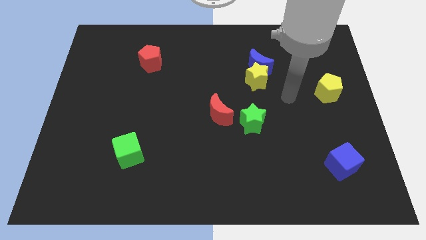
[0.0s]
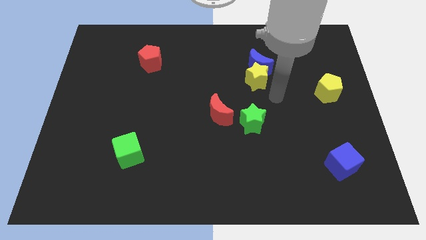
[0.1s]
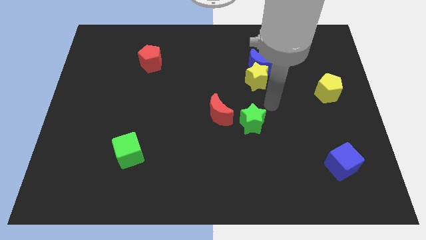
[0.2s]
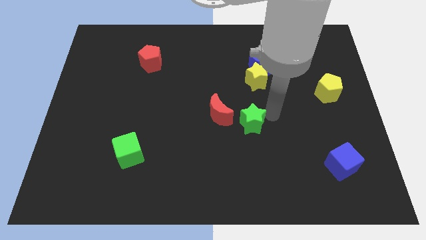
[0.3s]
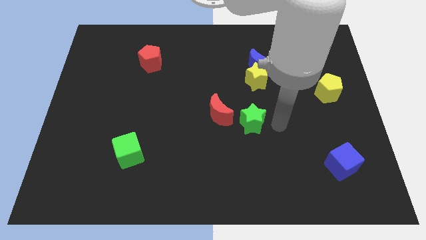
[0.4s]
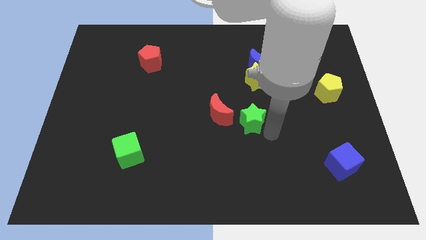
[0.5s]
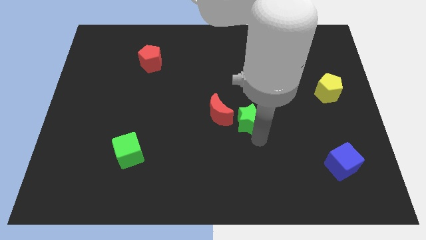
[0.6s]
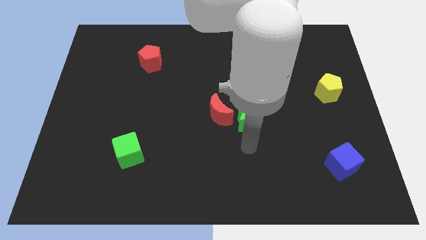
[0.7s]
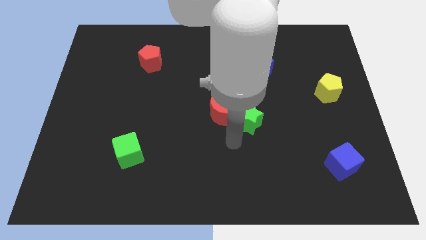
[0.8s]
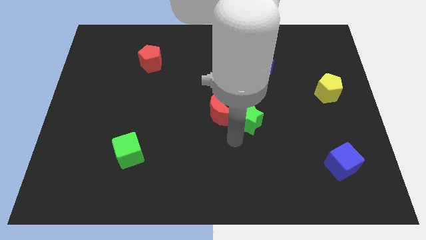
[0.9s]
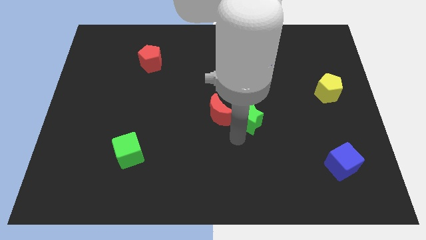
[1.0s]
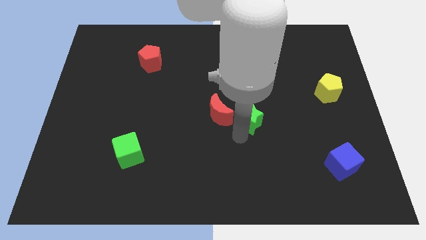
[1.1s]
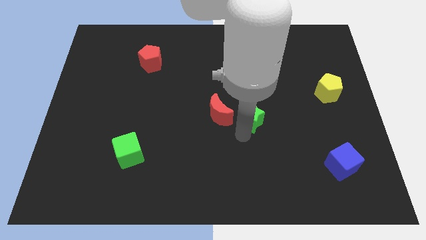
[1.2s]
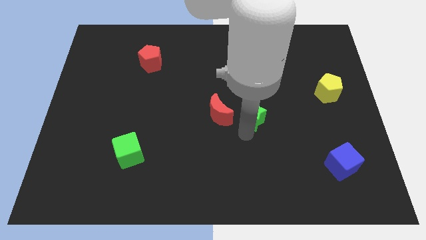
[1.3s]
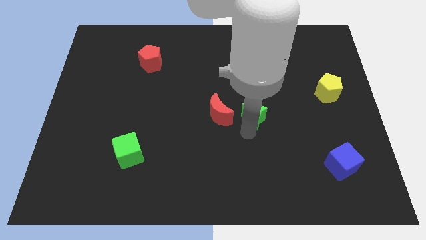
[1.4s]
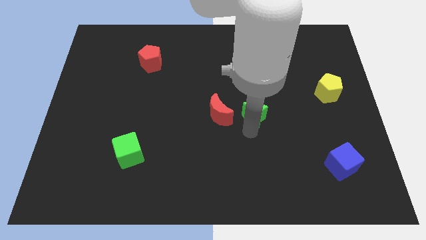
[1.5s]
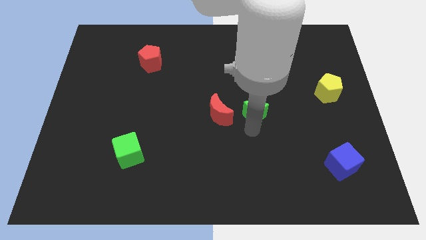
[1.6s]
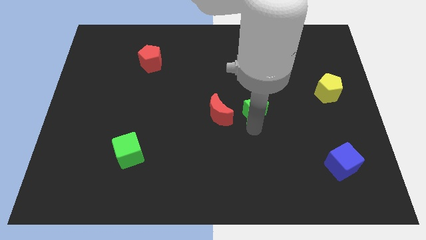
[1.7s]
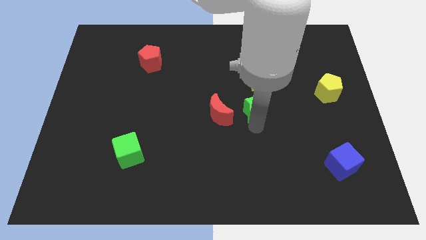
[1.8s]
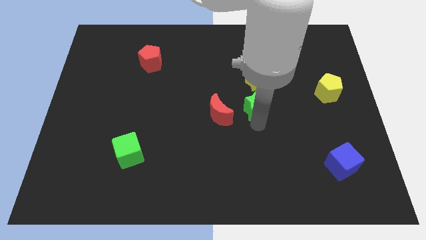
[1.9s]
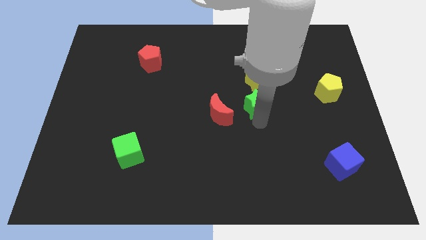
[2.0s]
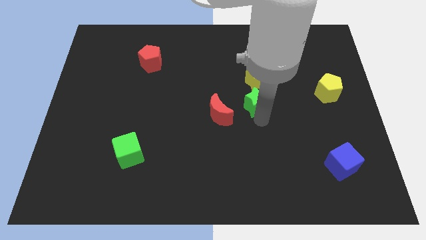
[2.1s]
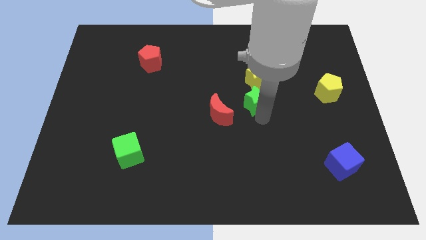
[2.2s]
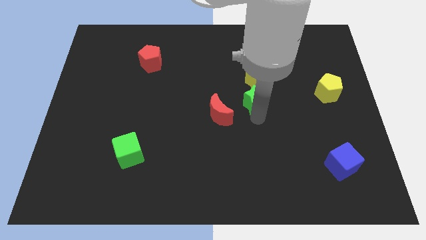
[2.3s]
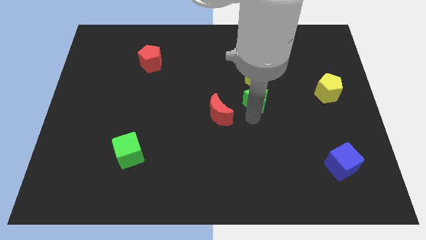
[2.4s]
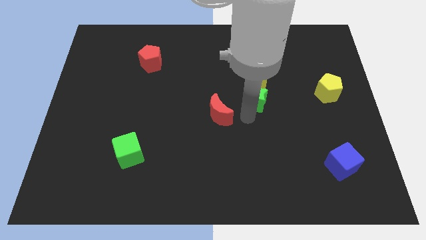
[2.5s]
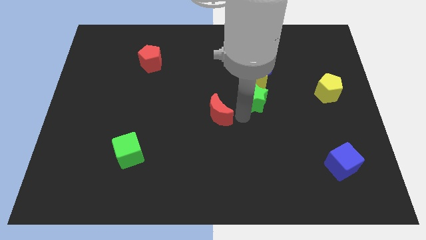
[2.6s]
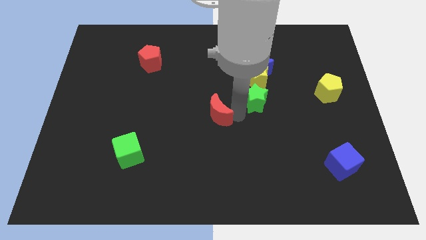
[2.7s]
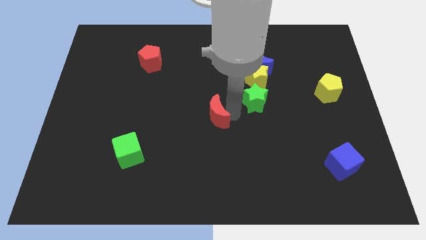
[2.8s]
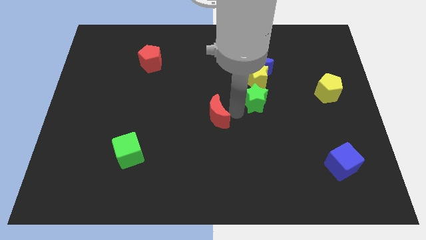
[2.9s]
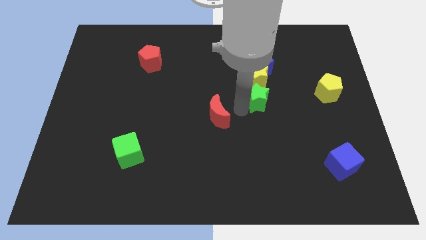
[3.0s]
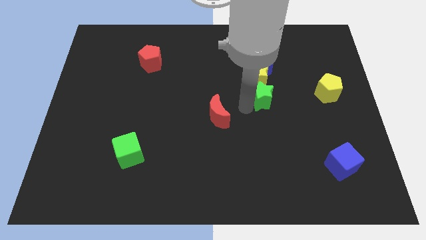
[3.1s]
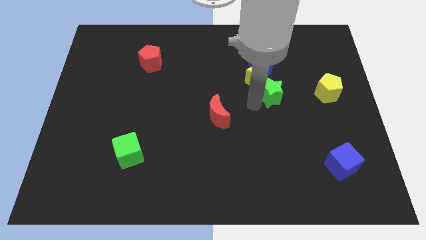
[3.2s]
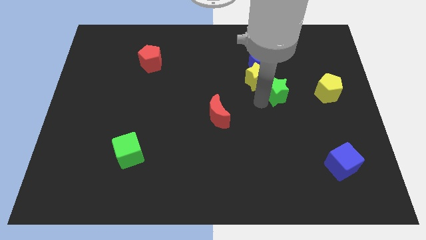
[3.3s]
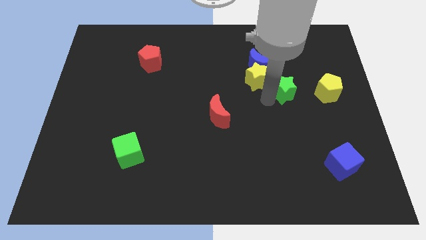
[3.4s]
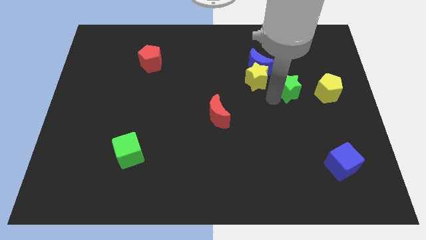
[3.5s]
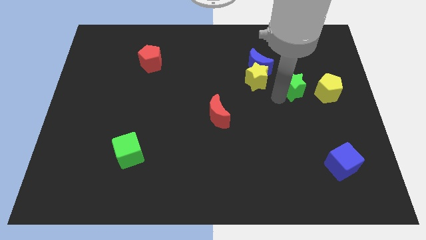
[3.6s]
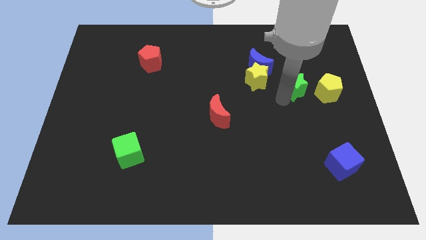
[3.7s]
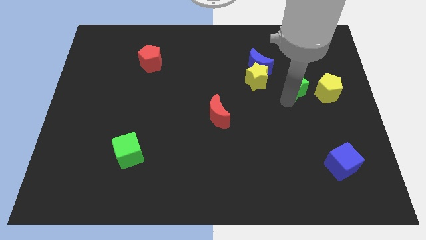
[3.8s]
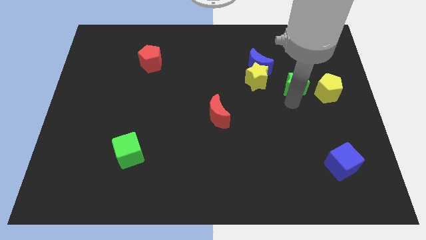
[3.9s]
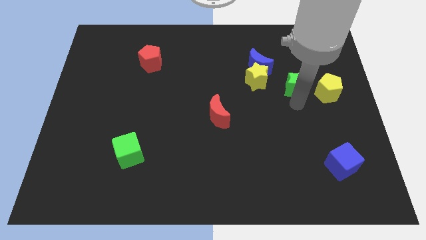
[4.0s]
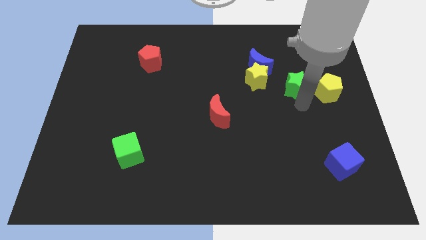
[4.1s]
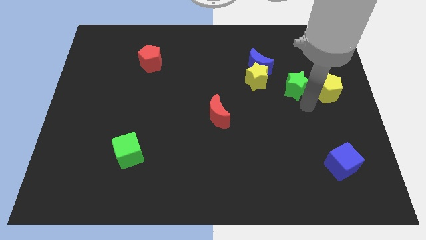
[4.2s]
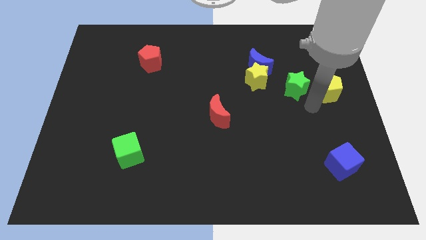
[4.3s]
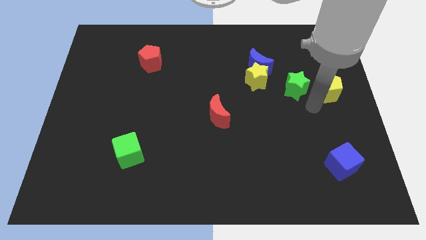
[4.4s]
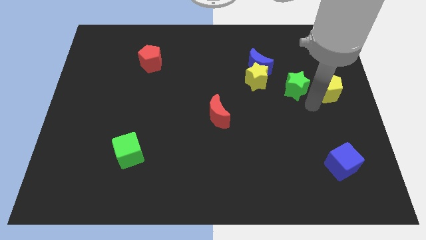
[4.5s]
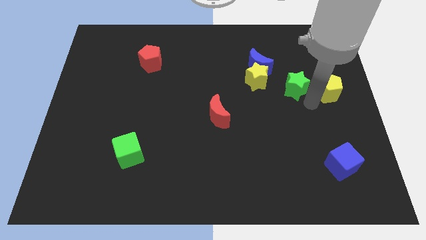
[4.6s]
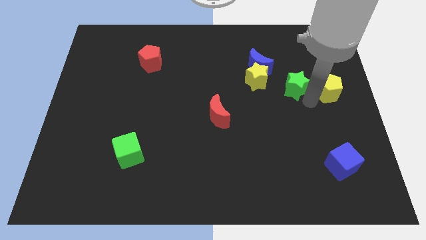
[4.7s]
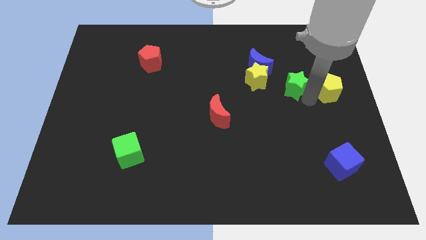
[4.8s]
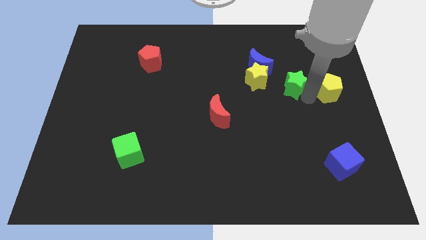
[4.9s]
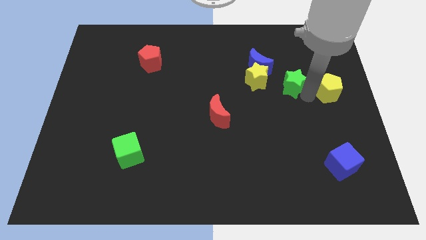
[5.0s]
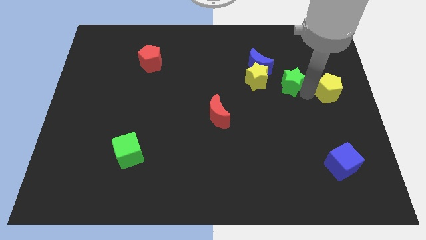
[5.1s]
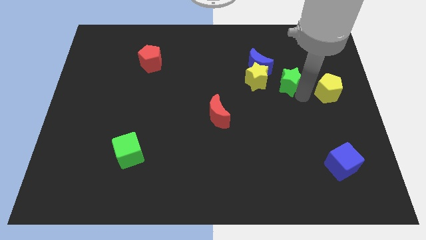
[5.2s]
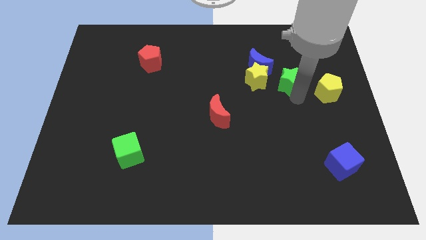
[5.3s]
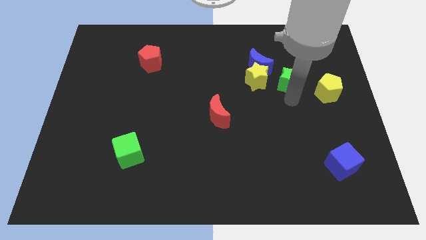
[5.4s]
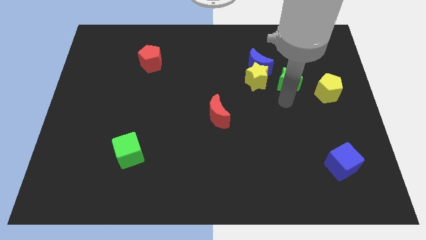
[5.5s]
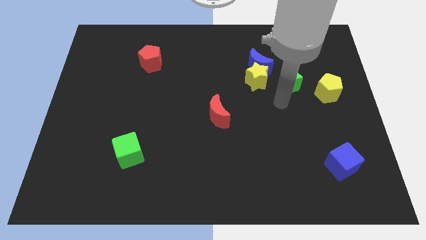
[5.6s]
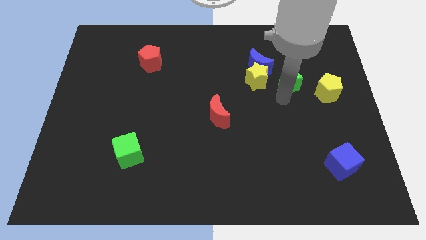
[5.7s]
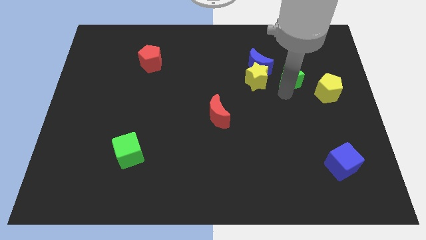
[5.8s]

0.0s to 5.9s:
push the green star just right of the blue moon
